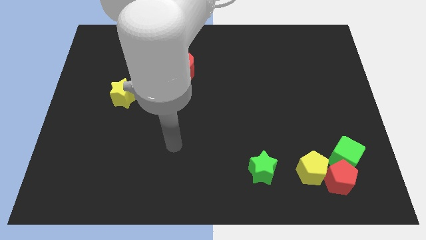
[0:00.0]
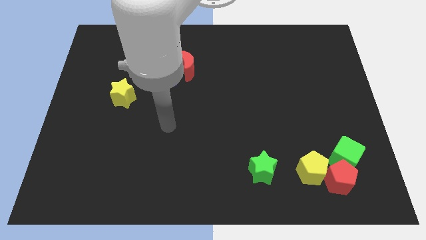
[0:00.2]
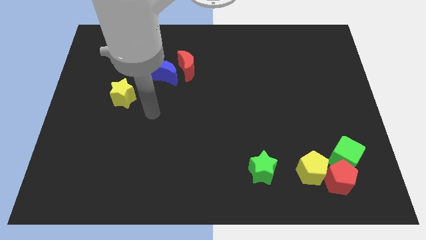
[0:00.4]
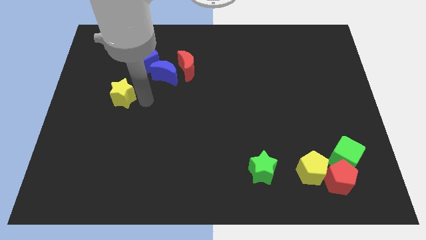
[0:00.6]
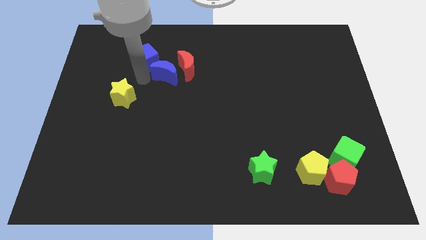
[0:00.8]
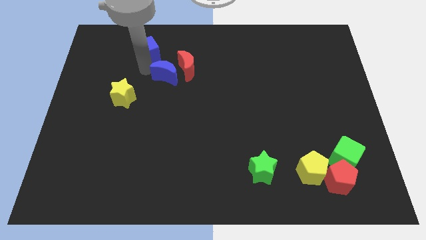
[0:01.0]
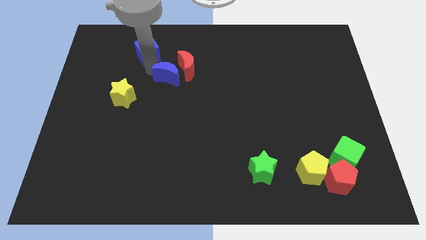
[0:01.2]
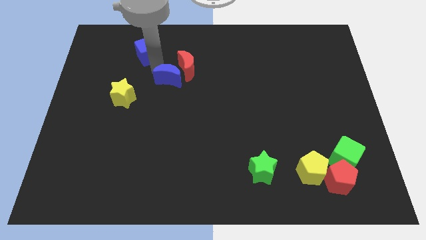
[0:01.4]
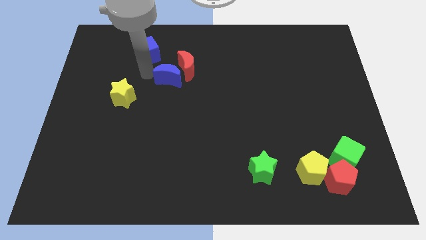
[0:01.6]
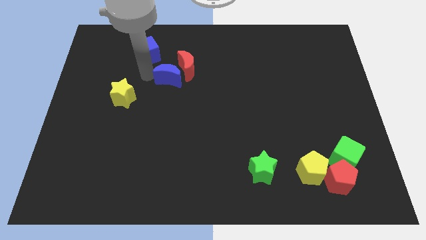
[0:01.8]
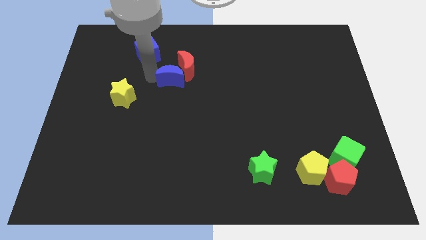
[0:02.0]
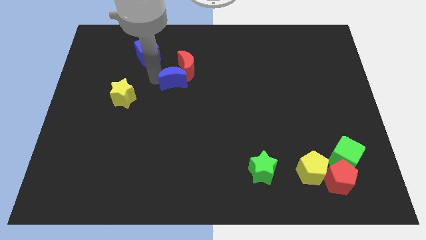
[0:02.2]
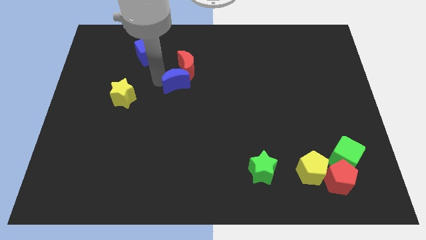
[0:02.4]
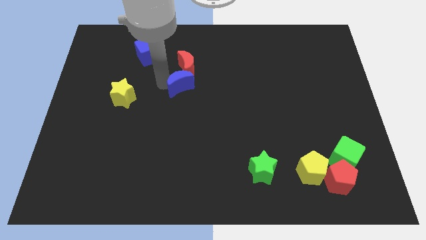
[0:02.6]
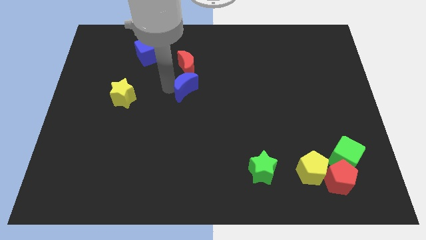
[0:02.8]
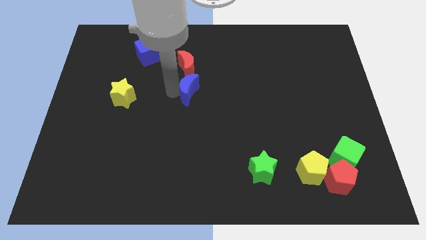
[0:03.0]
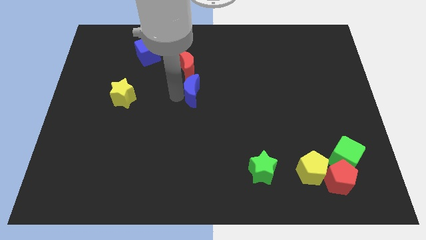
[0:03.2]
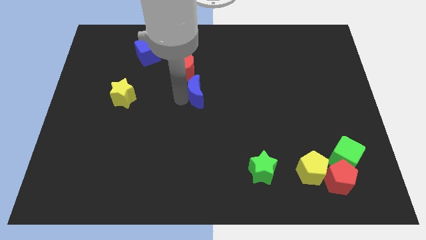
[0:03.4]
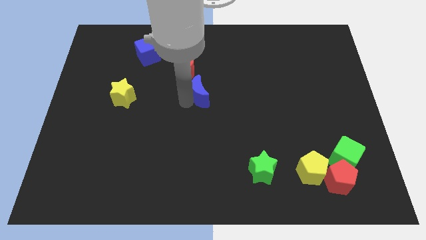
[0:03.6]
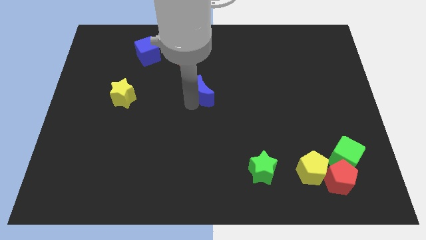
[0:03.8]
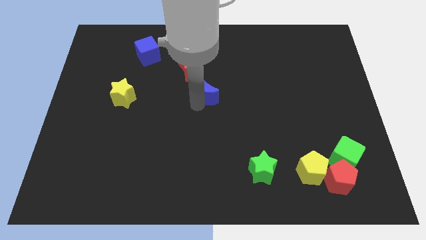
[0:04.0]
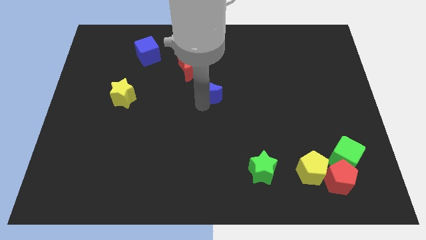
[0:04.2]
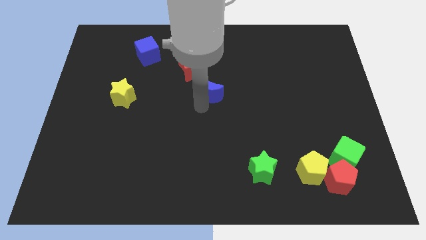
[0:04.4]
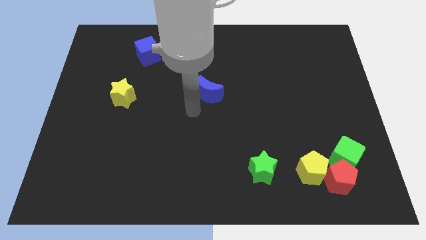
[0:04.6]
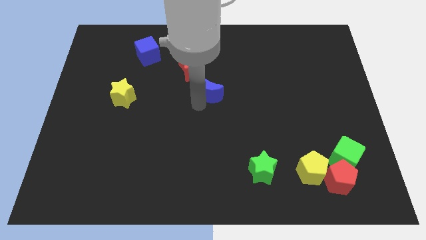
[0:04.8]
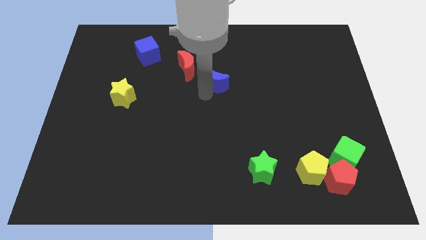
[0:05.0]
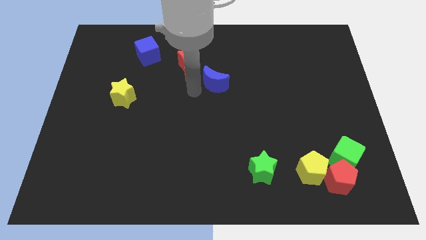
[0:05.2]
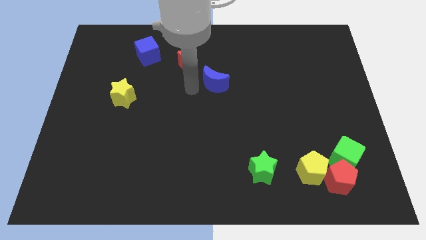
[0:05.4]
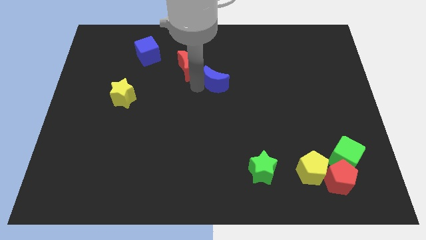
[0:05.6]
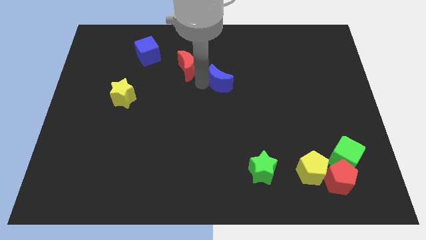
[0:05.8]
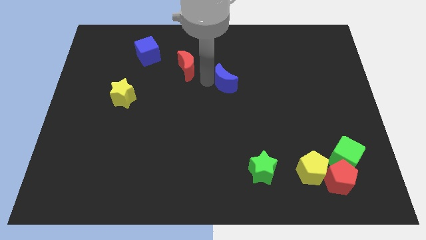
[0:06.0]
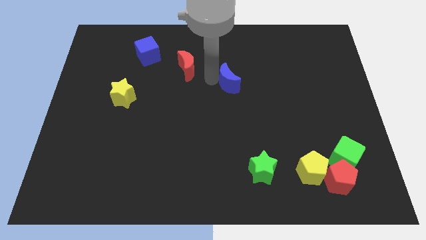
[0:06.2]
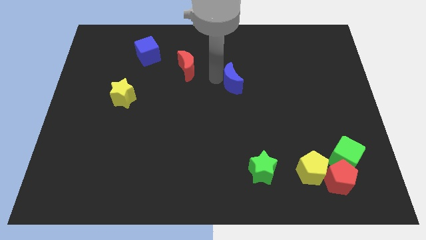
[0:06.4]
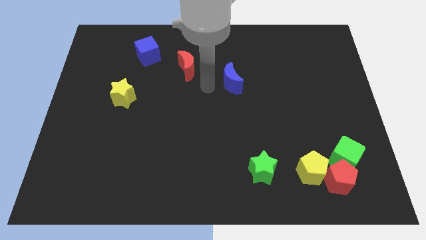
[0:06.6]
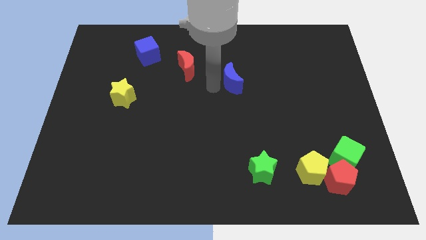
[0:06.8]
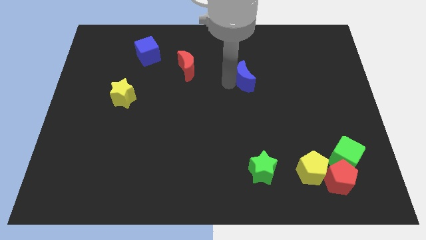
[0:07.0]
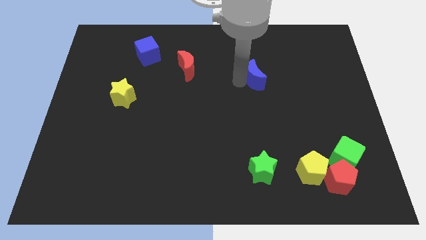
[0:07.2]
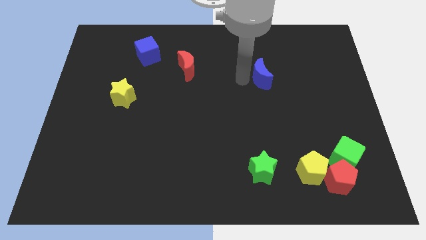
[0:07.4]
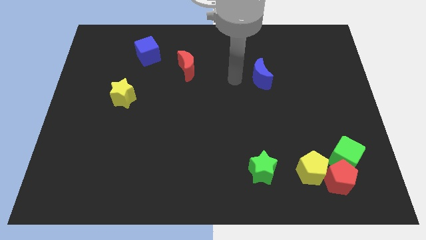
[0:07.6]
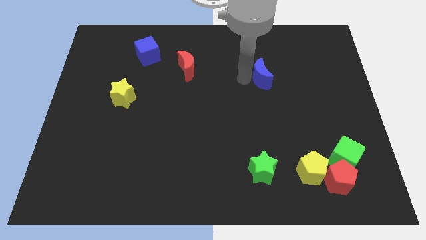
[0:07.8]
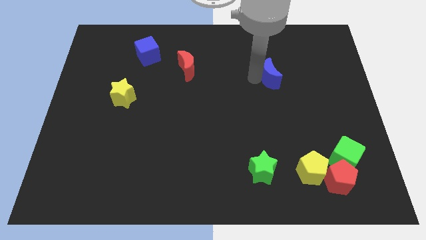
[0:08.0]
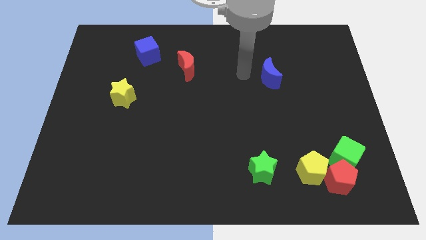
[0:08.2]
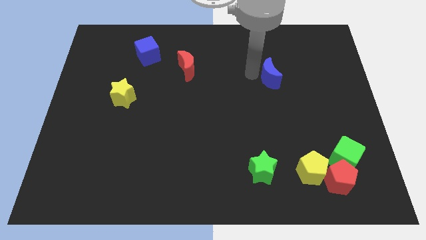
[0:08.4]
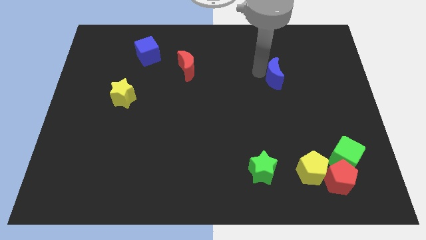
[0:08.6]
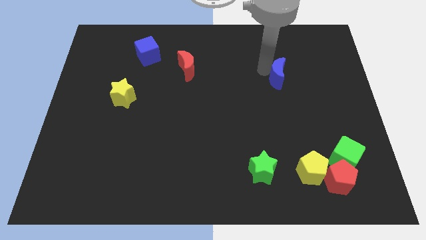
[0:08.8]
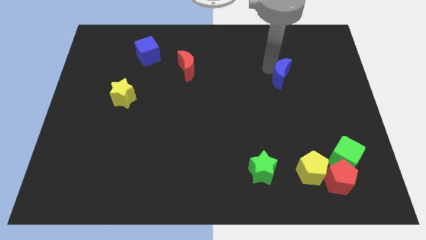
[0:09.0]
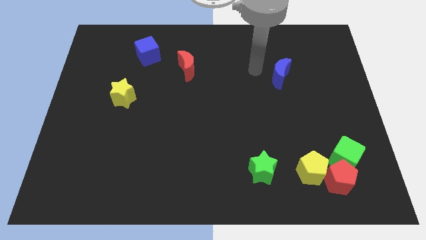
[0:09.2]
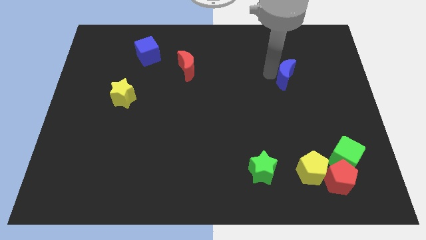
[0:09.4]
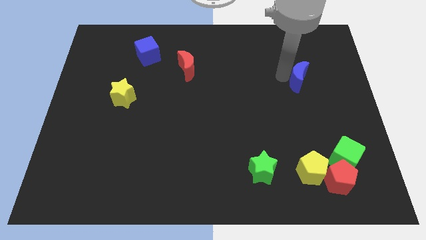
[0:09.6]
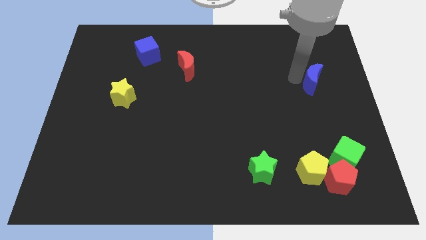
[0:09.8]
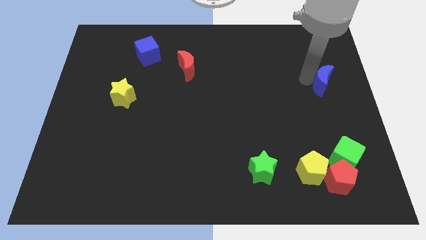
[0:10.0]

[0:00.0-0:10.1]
push the blue moon to the center right

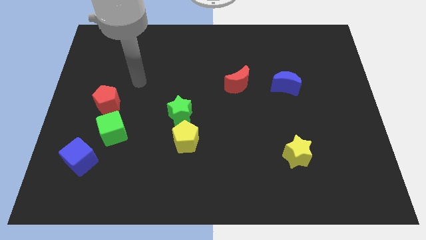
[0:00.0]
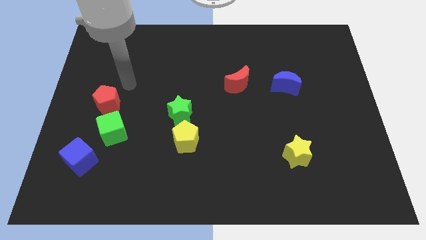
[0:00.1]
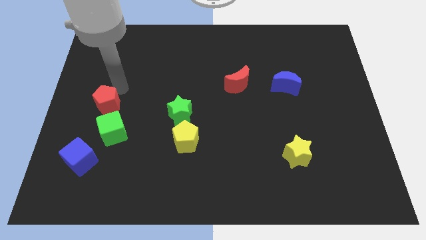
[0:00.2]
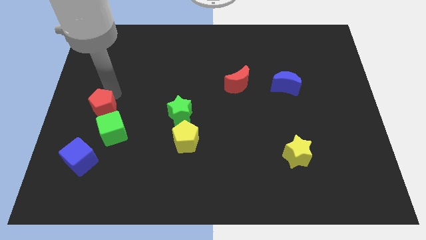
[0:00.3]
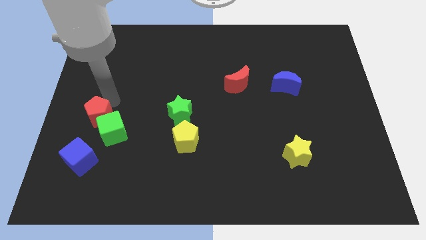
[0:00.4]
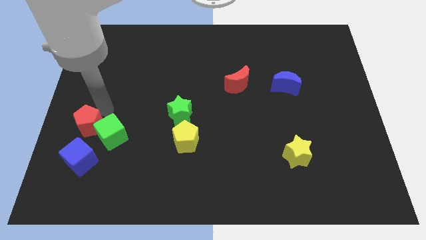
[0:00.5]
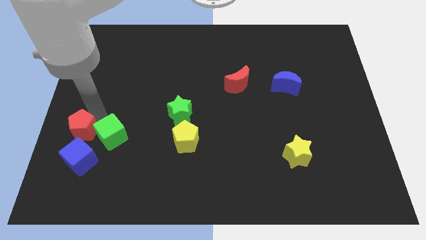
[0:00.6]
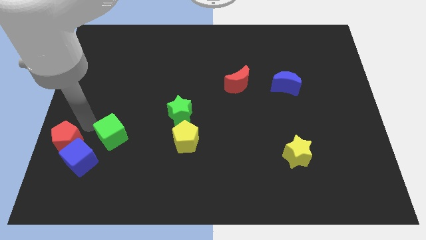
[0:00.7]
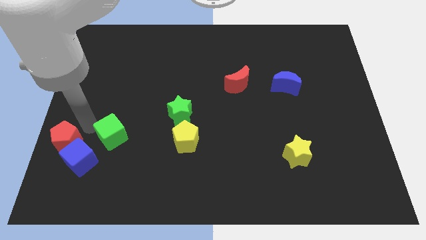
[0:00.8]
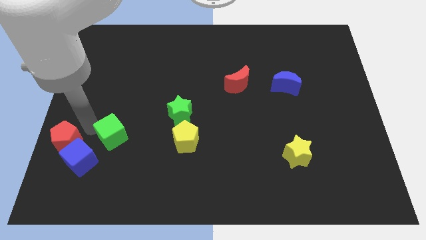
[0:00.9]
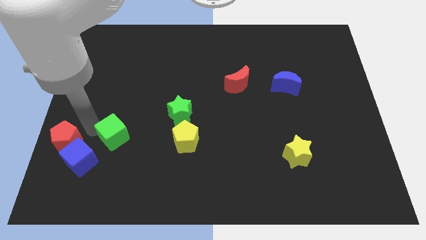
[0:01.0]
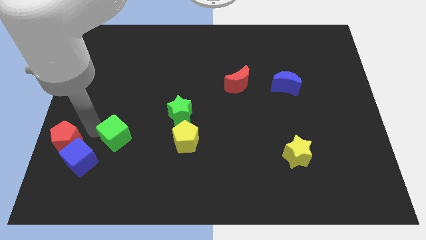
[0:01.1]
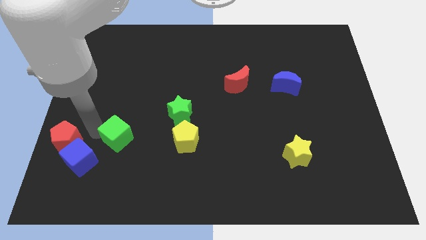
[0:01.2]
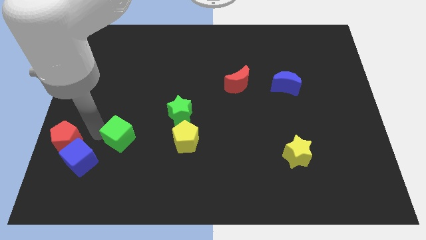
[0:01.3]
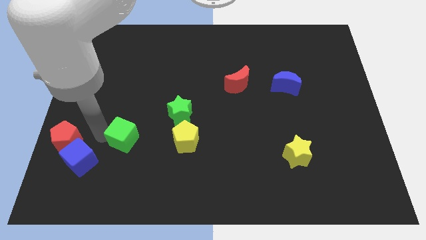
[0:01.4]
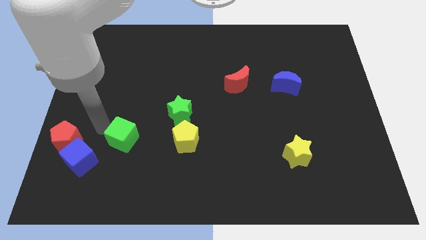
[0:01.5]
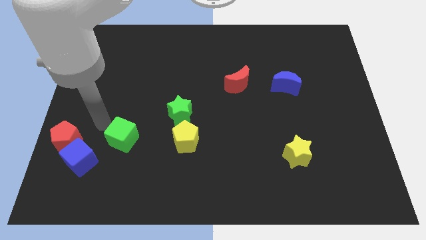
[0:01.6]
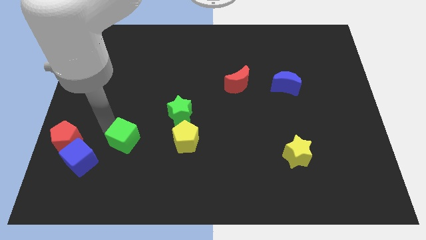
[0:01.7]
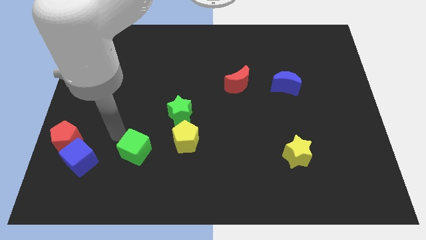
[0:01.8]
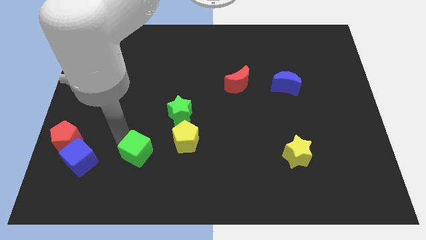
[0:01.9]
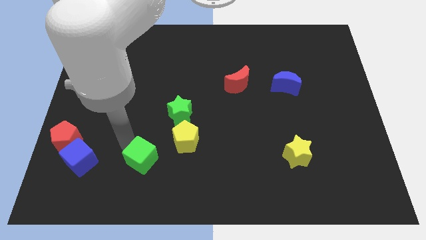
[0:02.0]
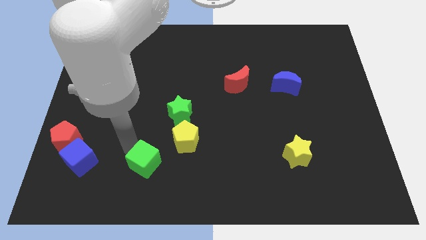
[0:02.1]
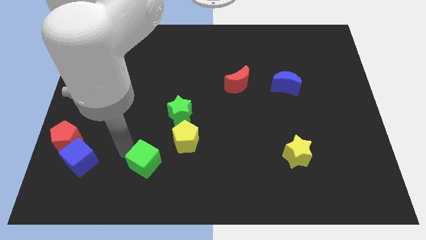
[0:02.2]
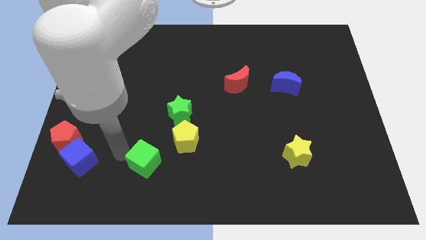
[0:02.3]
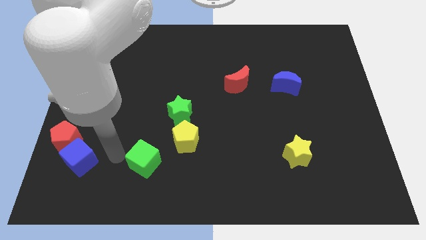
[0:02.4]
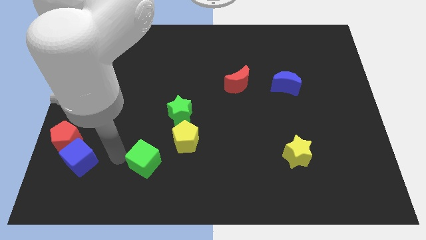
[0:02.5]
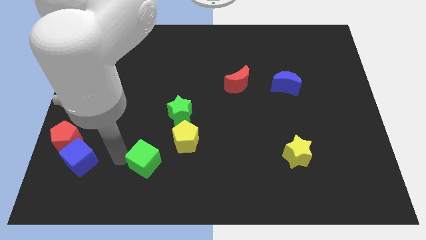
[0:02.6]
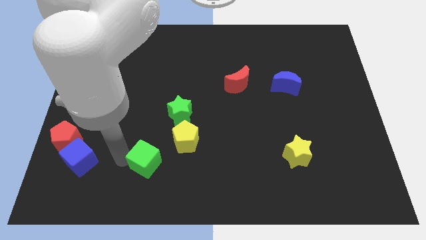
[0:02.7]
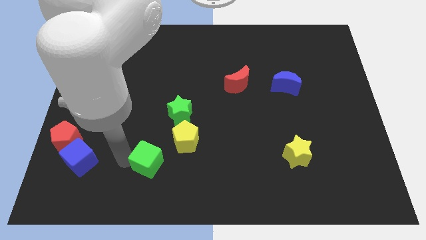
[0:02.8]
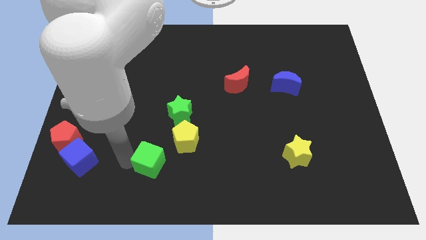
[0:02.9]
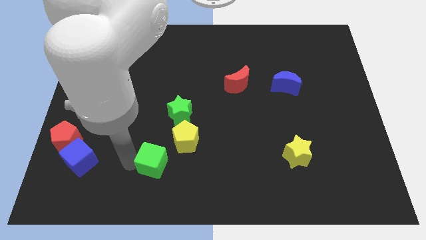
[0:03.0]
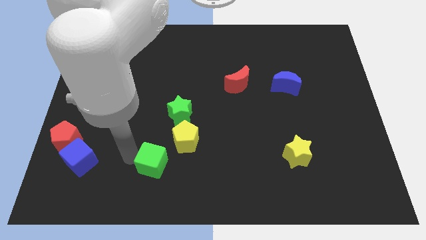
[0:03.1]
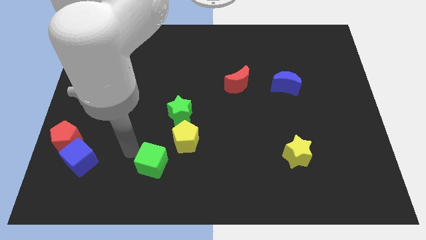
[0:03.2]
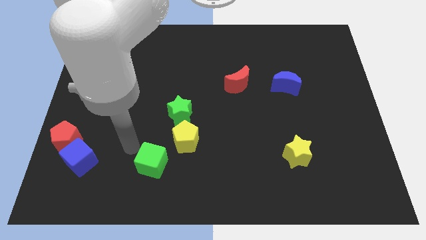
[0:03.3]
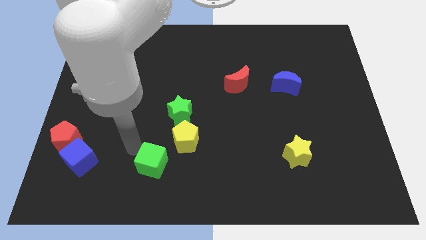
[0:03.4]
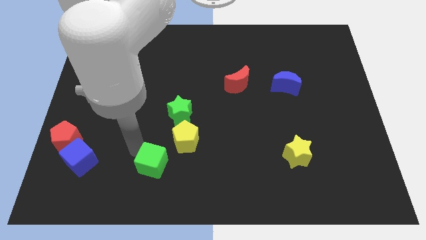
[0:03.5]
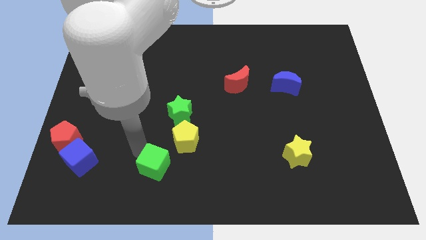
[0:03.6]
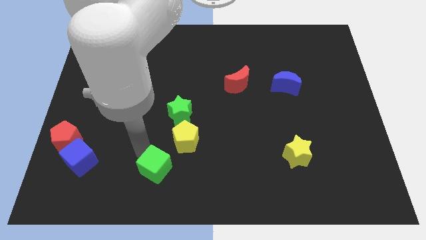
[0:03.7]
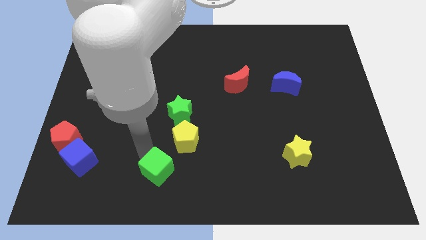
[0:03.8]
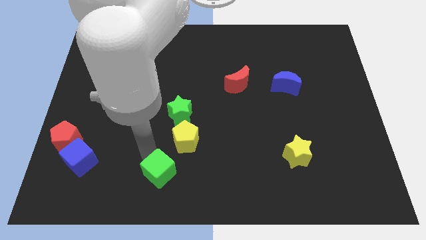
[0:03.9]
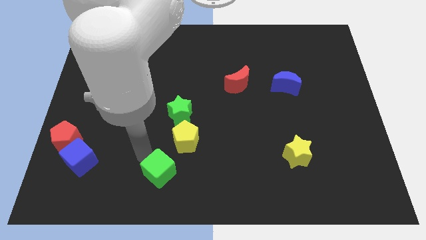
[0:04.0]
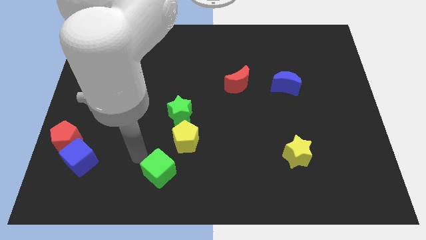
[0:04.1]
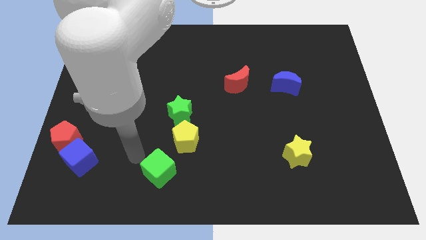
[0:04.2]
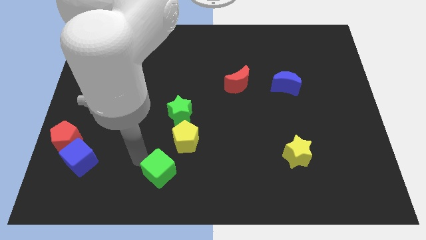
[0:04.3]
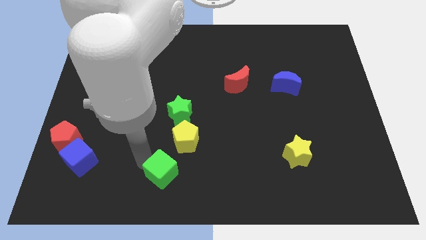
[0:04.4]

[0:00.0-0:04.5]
slide the green cube to the bottom side
